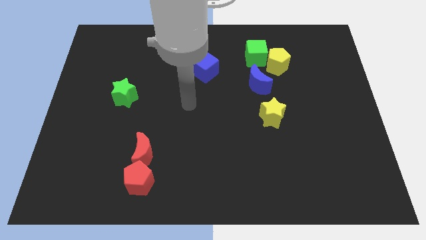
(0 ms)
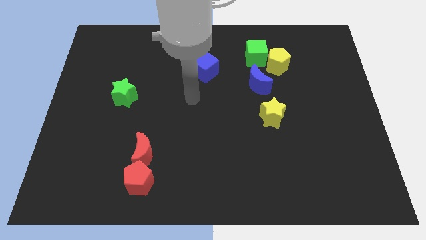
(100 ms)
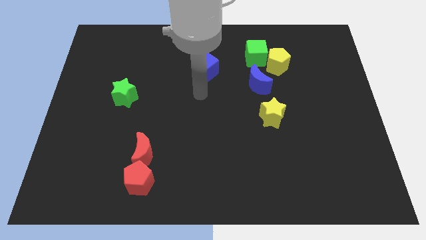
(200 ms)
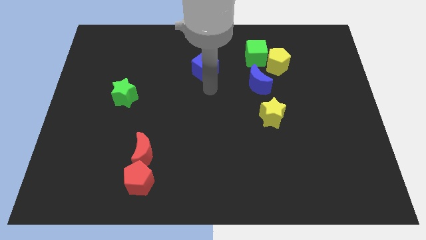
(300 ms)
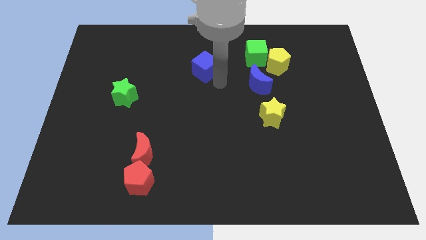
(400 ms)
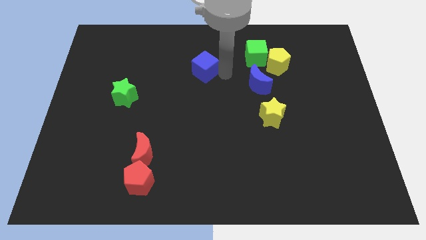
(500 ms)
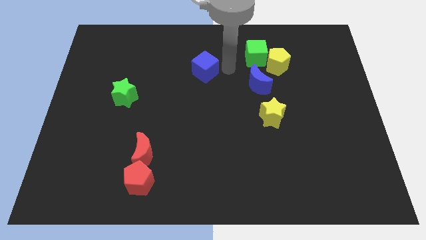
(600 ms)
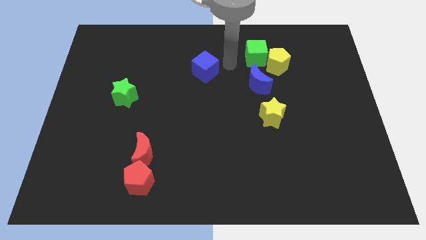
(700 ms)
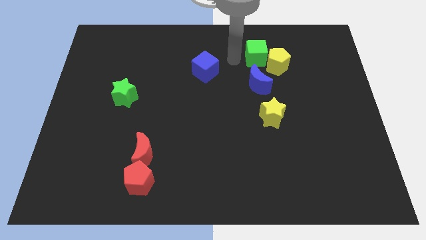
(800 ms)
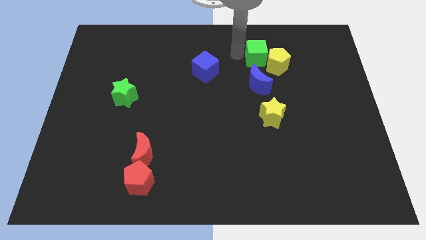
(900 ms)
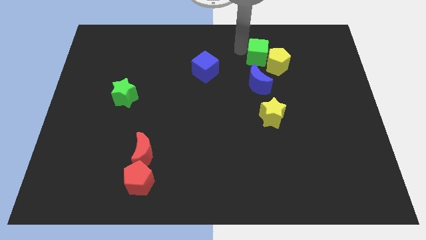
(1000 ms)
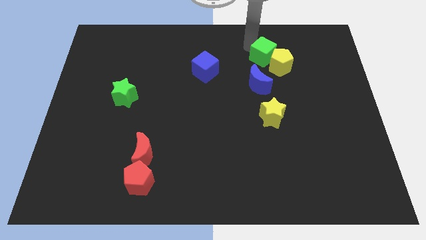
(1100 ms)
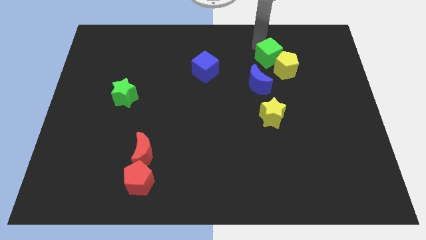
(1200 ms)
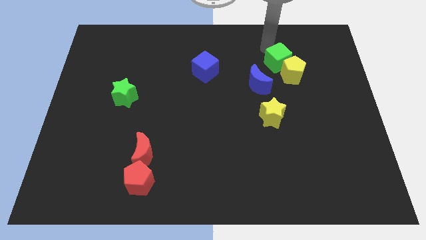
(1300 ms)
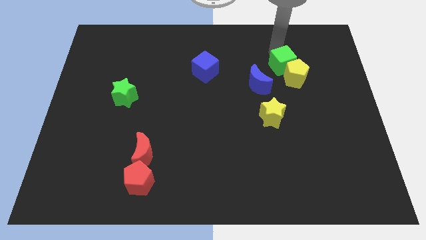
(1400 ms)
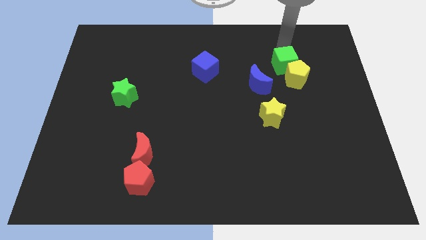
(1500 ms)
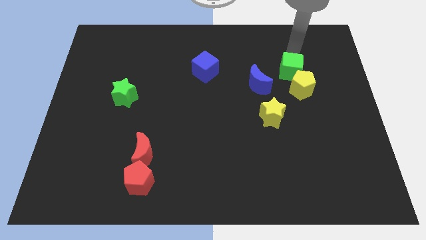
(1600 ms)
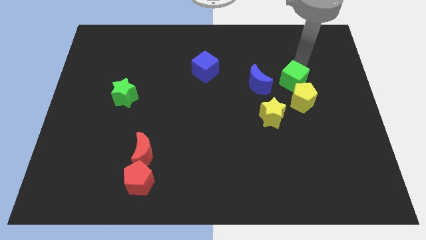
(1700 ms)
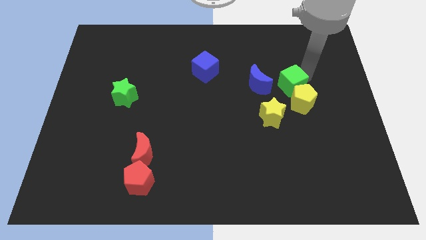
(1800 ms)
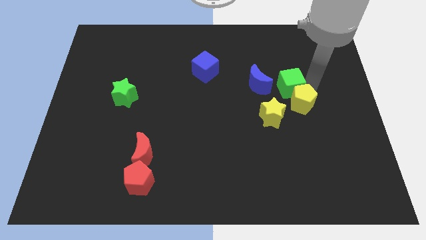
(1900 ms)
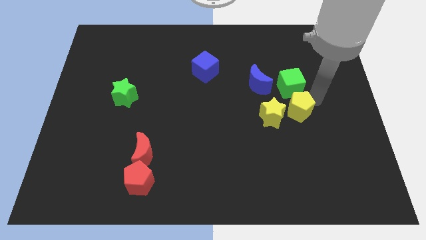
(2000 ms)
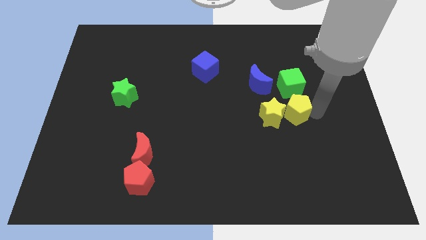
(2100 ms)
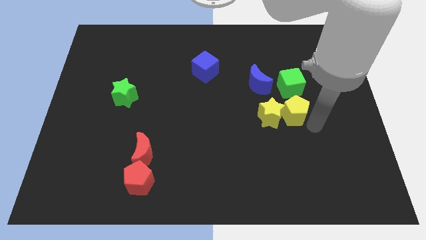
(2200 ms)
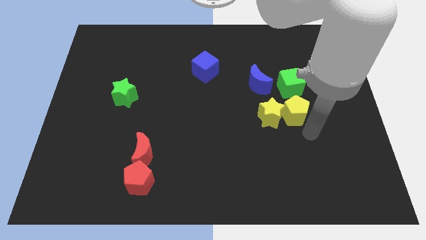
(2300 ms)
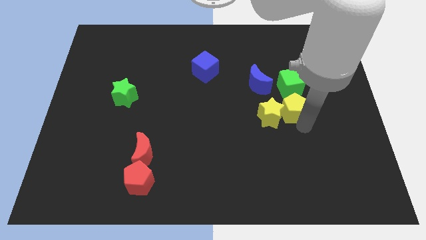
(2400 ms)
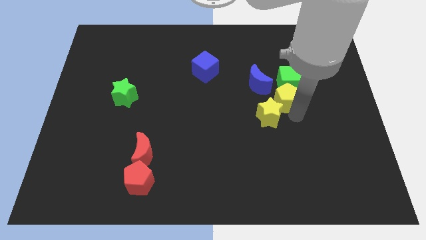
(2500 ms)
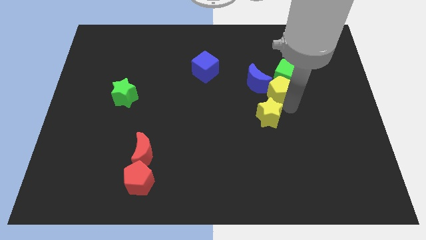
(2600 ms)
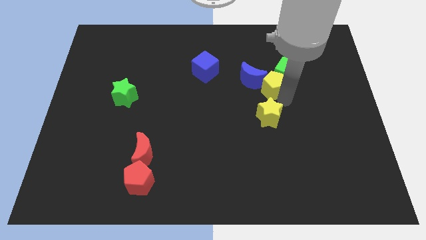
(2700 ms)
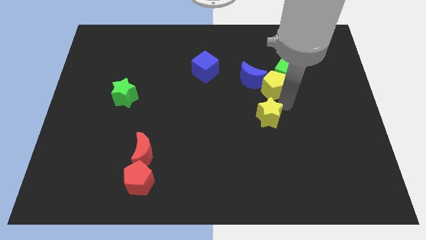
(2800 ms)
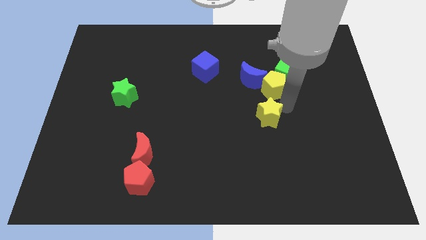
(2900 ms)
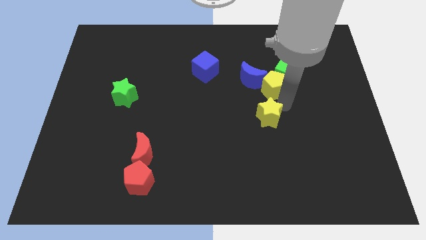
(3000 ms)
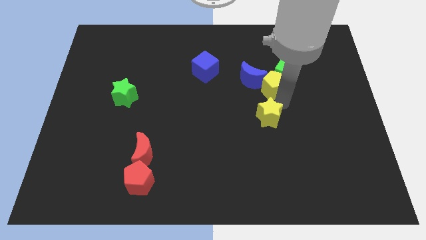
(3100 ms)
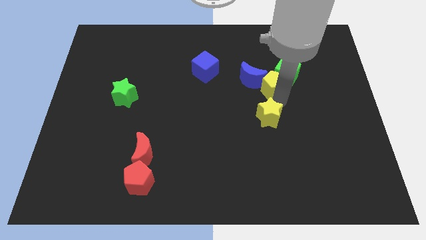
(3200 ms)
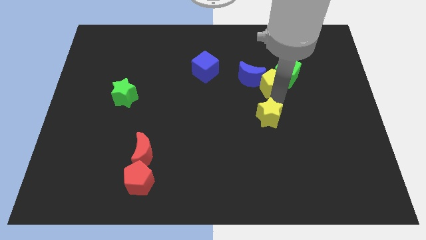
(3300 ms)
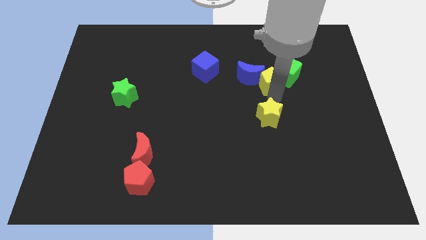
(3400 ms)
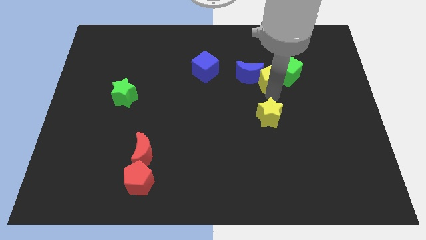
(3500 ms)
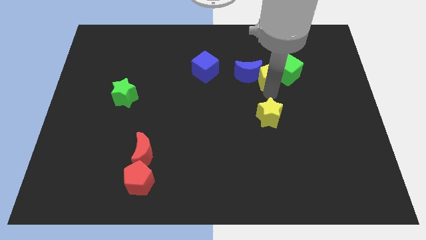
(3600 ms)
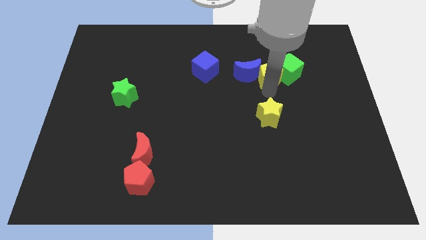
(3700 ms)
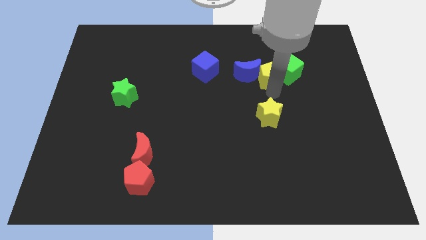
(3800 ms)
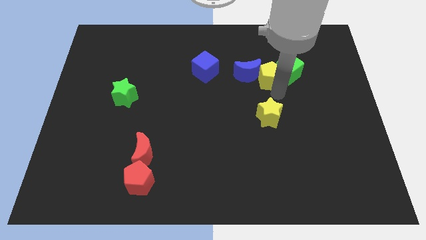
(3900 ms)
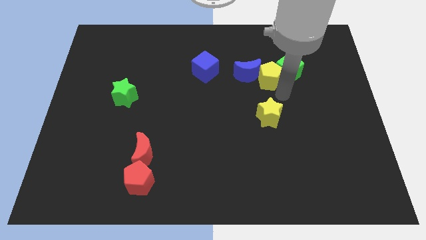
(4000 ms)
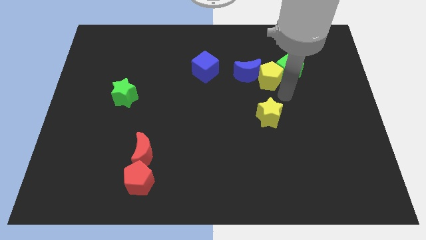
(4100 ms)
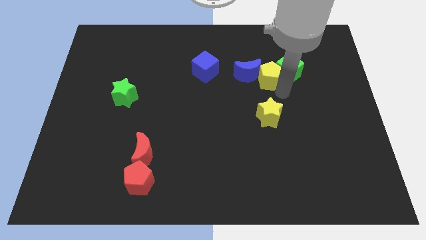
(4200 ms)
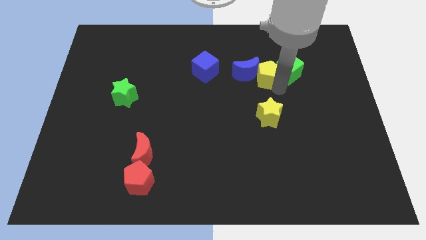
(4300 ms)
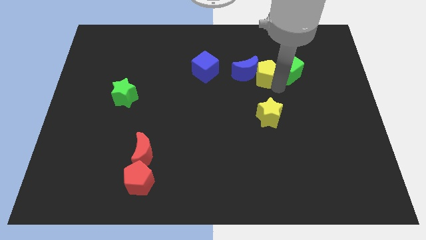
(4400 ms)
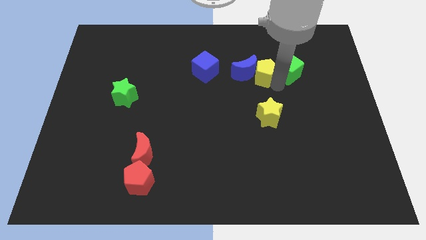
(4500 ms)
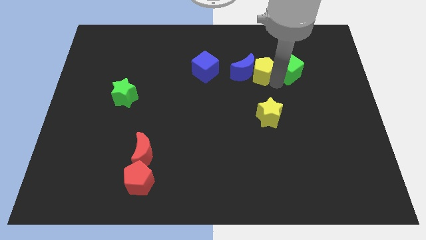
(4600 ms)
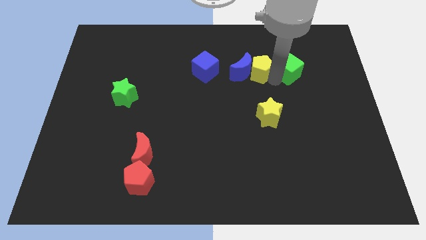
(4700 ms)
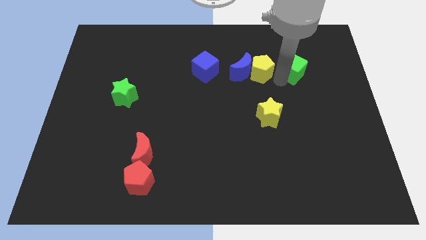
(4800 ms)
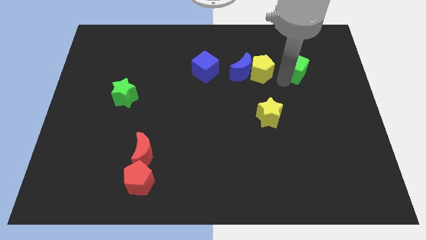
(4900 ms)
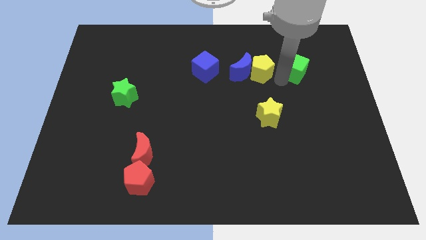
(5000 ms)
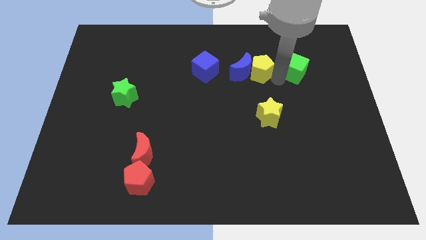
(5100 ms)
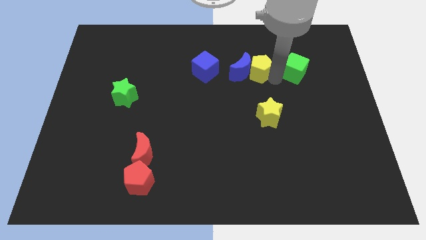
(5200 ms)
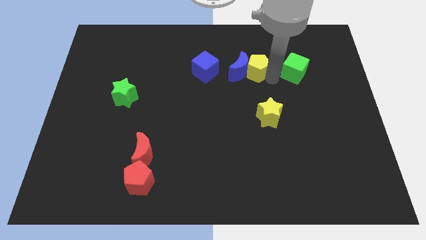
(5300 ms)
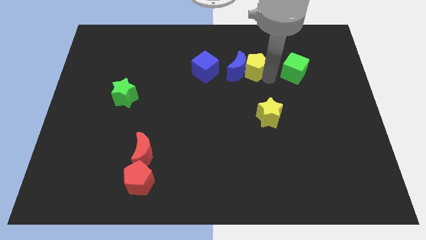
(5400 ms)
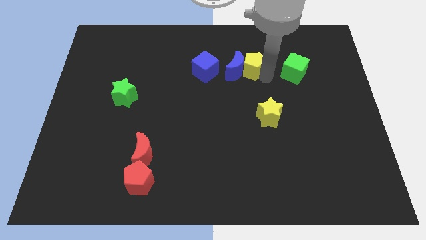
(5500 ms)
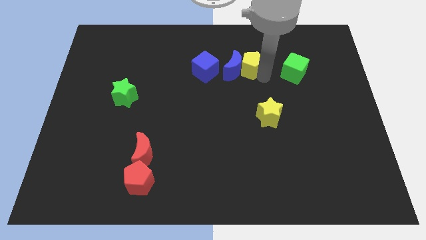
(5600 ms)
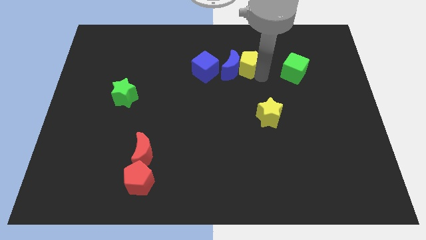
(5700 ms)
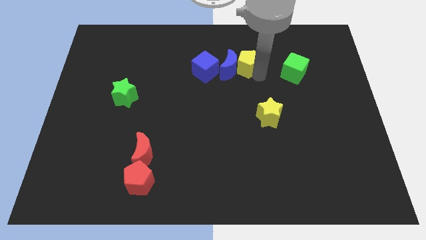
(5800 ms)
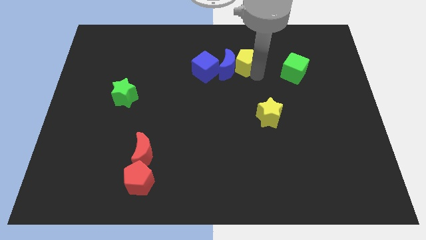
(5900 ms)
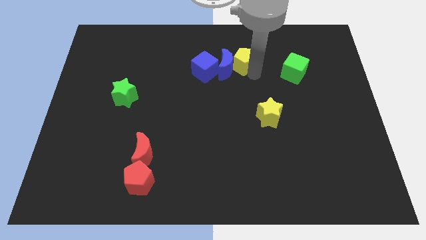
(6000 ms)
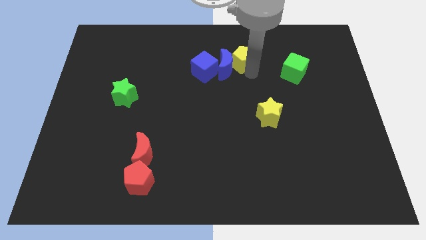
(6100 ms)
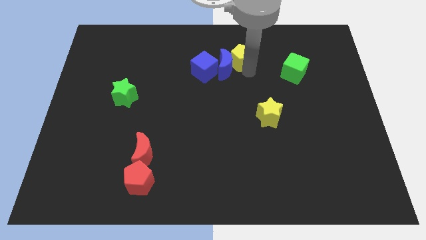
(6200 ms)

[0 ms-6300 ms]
put the yellow pentagon to the top right of the blue cube

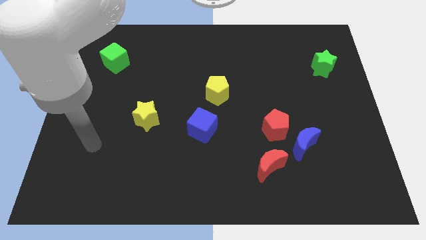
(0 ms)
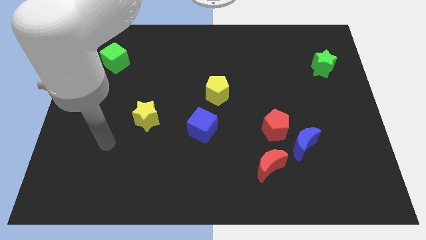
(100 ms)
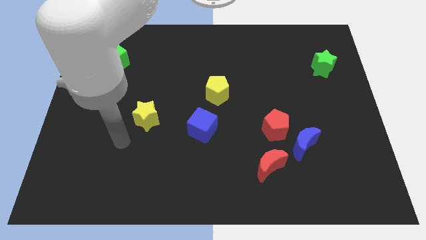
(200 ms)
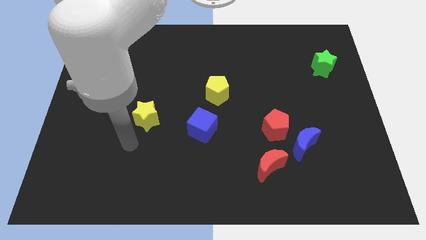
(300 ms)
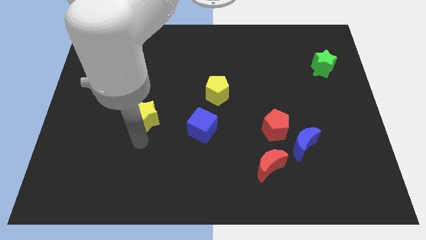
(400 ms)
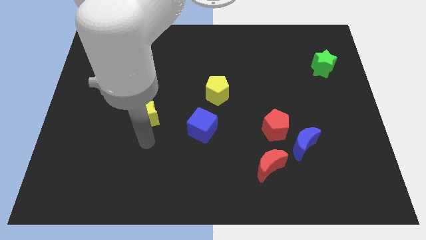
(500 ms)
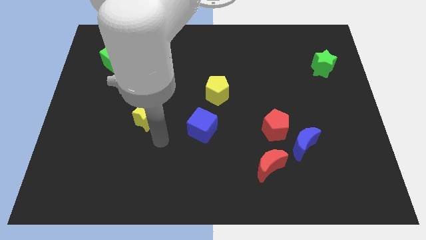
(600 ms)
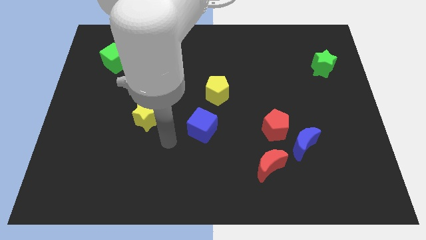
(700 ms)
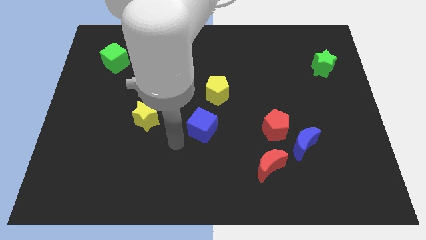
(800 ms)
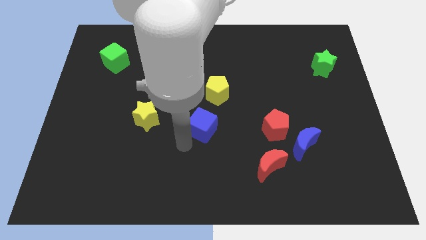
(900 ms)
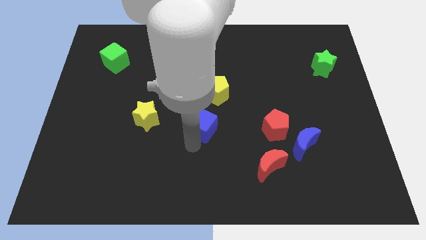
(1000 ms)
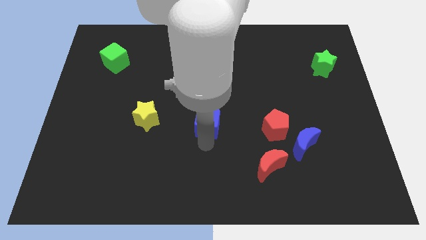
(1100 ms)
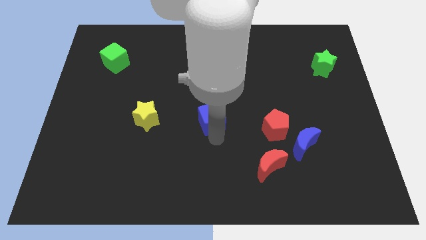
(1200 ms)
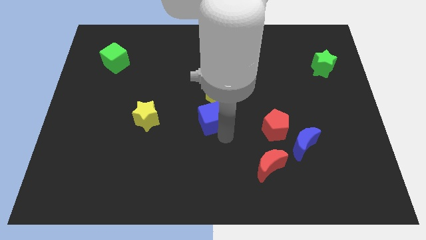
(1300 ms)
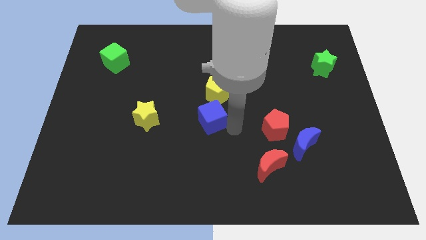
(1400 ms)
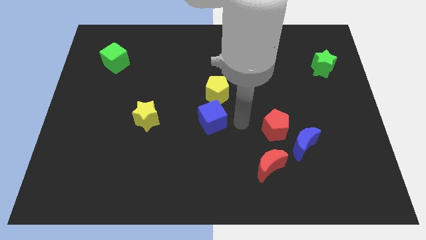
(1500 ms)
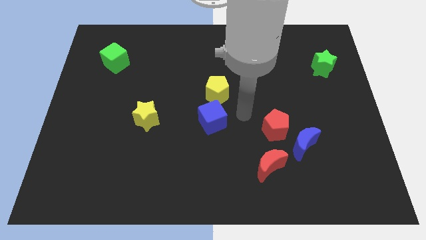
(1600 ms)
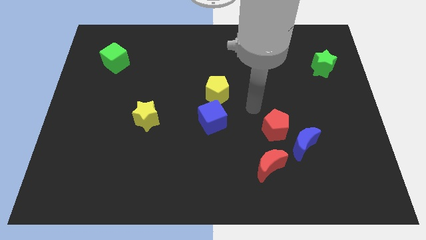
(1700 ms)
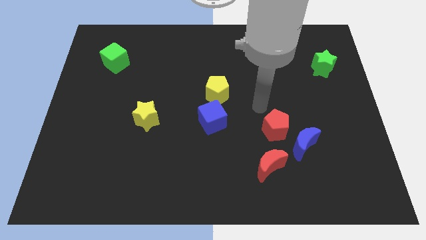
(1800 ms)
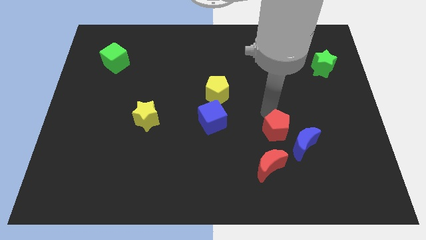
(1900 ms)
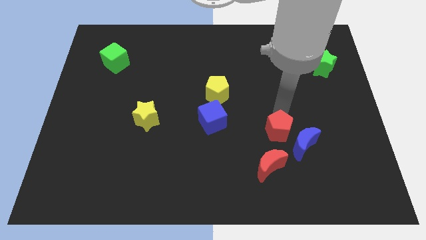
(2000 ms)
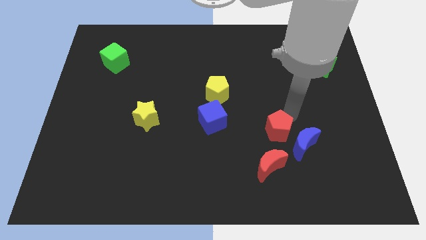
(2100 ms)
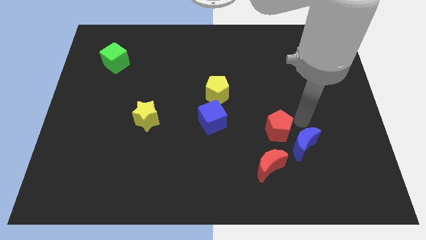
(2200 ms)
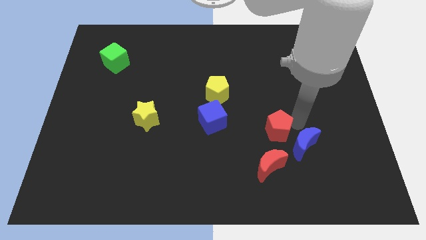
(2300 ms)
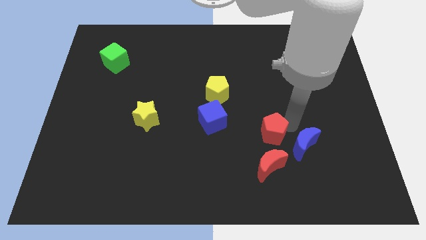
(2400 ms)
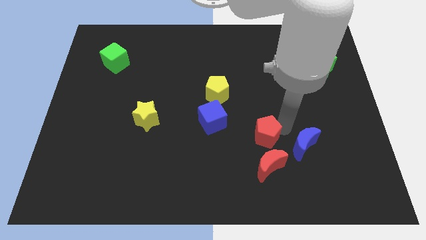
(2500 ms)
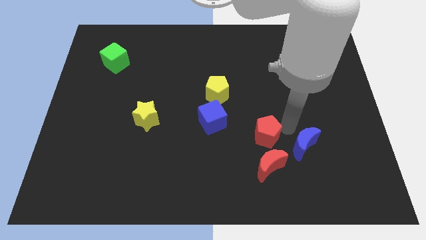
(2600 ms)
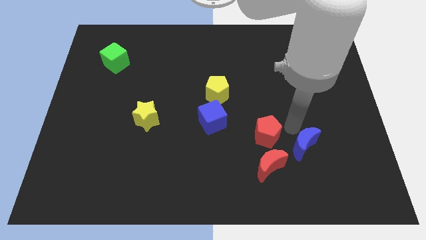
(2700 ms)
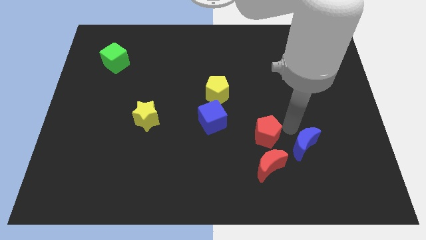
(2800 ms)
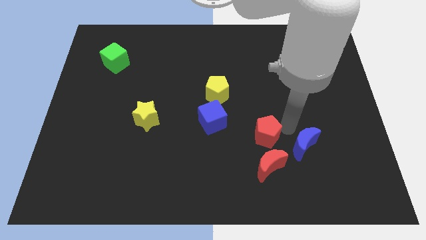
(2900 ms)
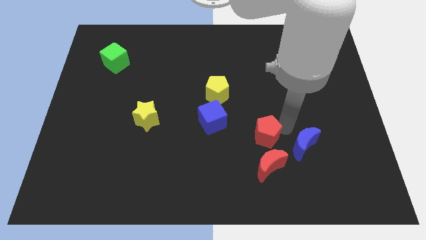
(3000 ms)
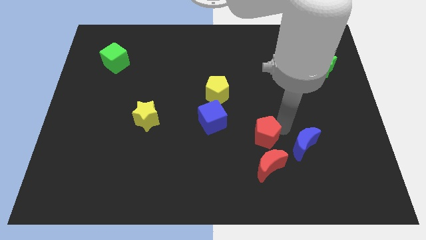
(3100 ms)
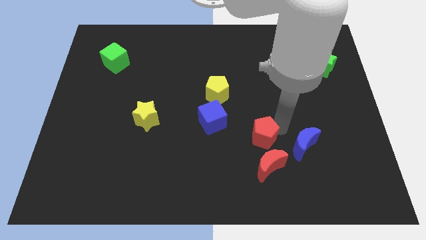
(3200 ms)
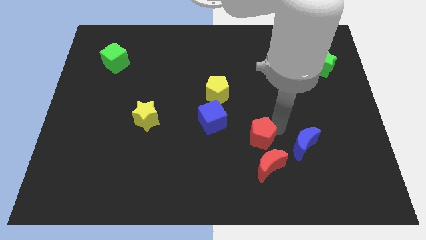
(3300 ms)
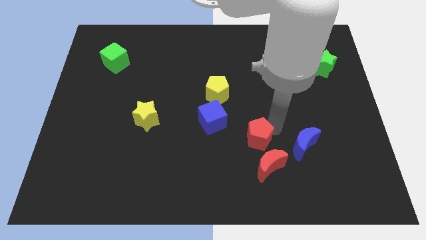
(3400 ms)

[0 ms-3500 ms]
put the red pentagon to the bottom right side of the blue cube
